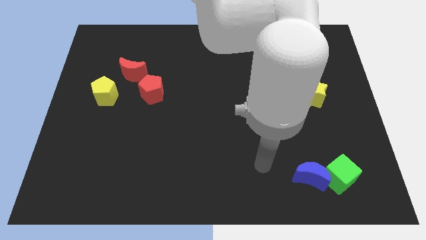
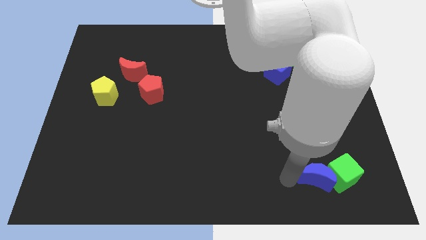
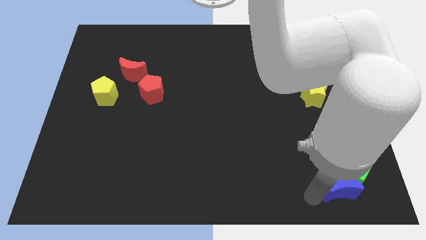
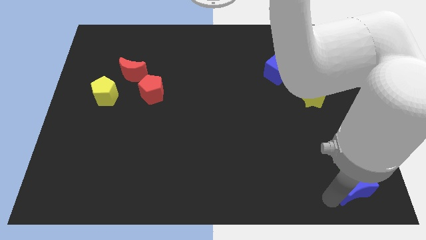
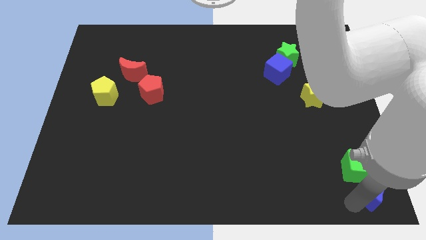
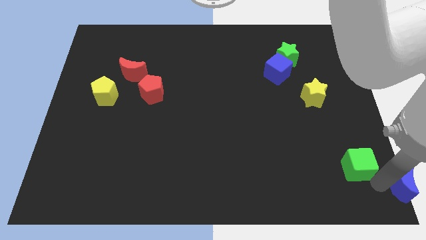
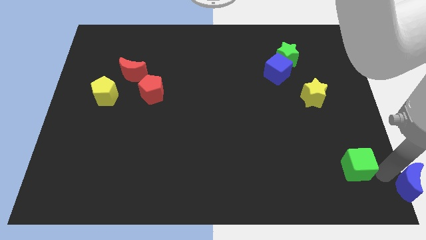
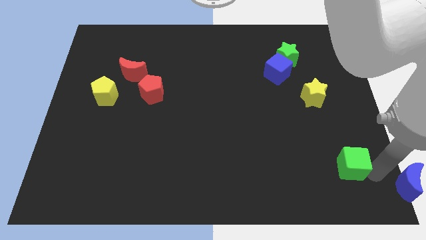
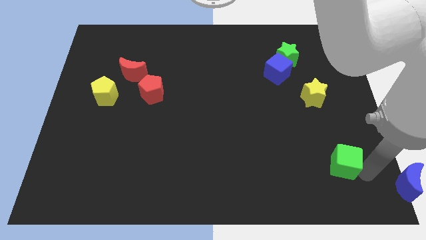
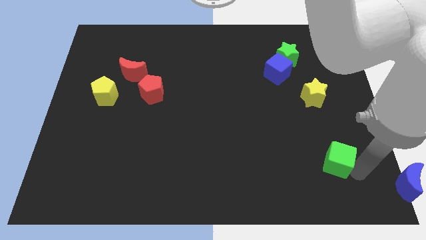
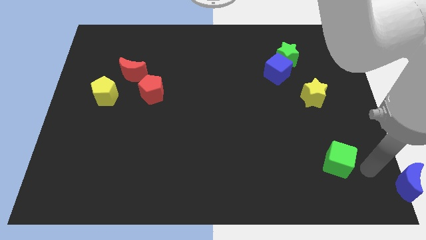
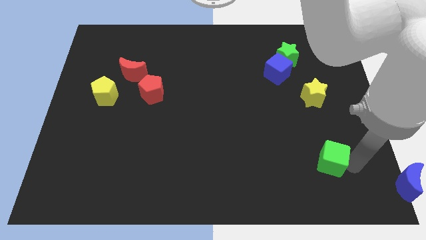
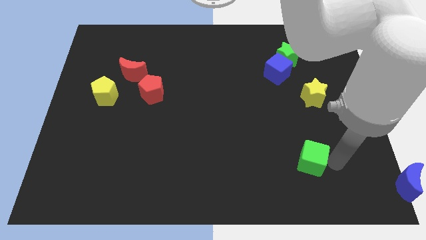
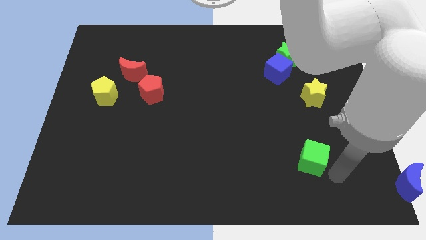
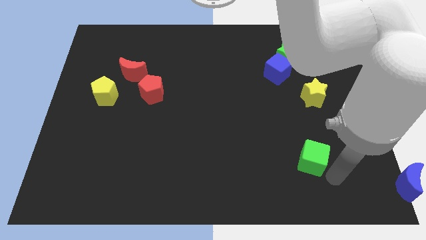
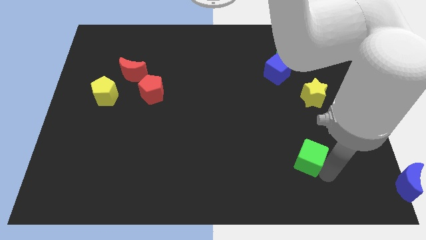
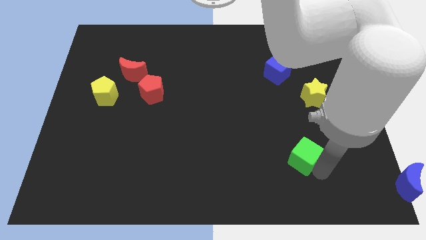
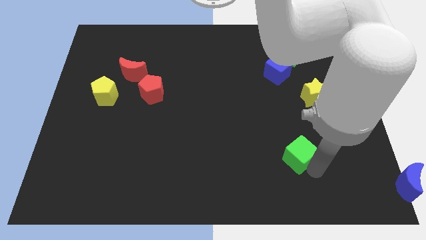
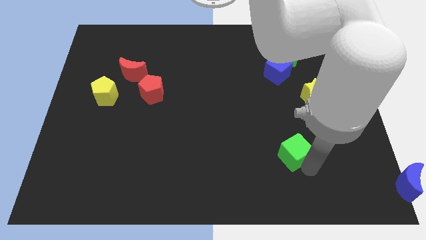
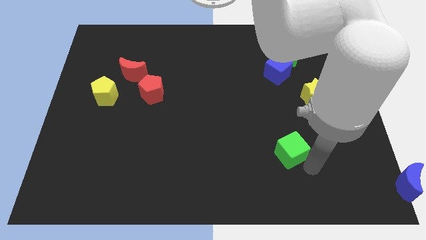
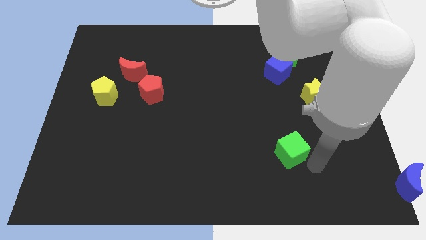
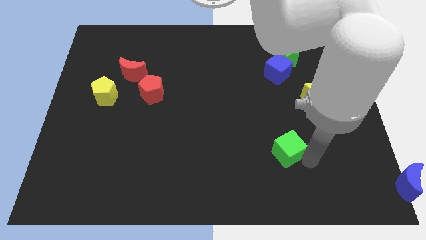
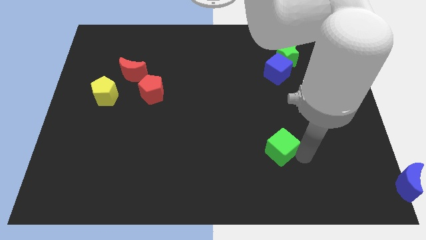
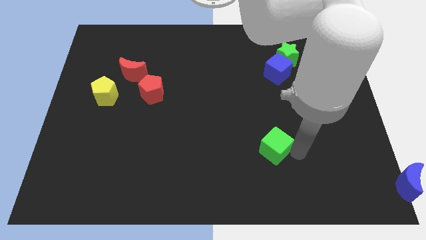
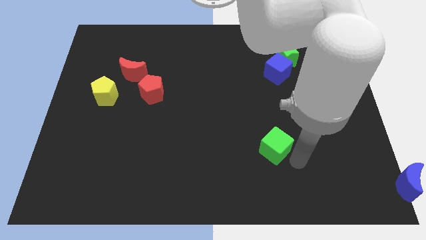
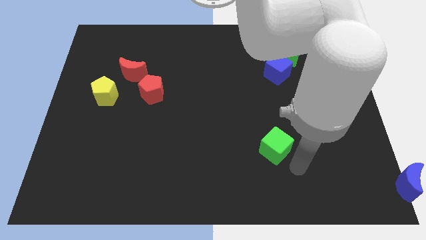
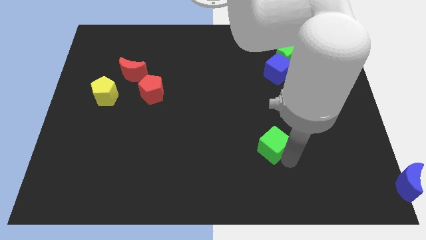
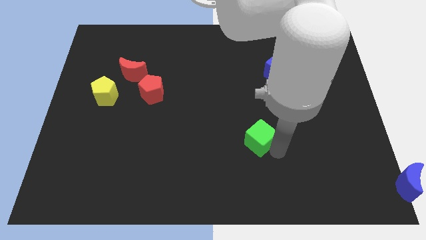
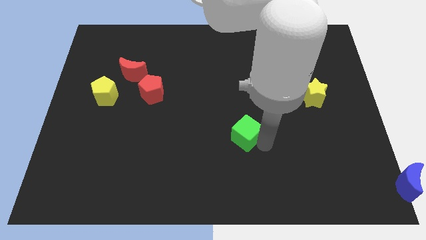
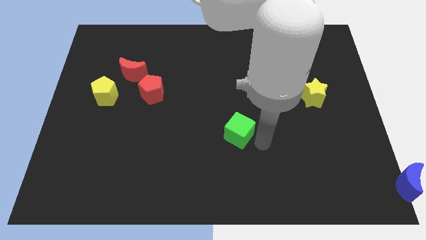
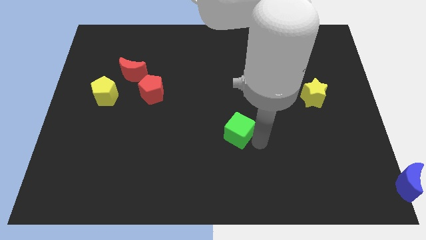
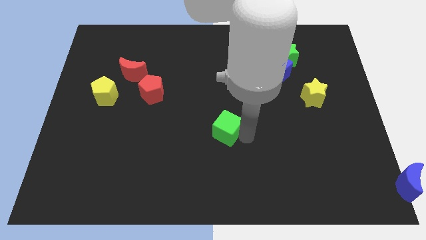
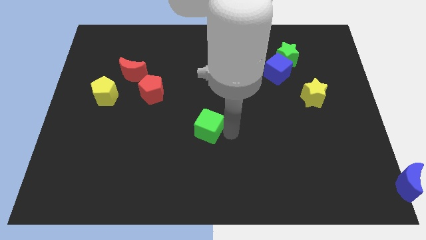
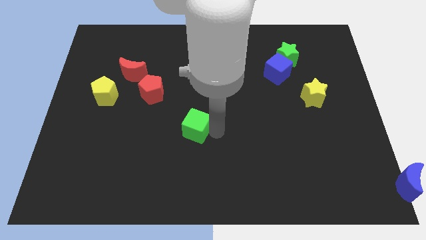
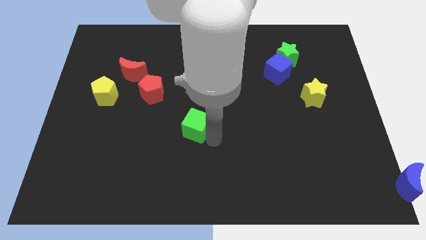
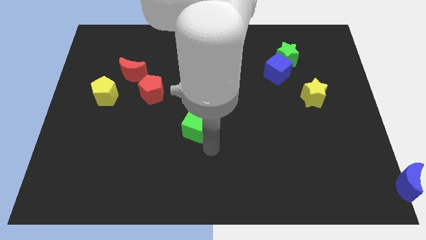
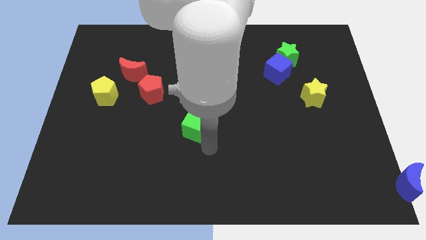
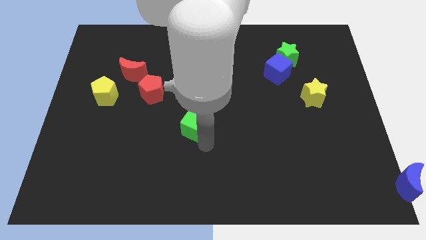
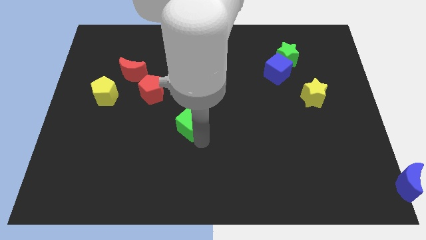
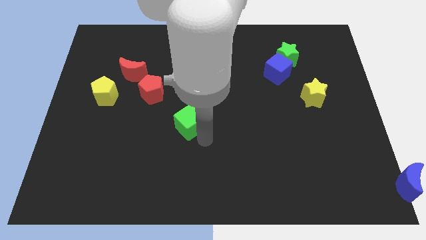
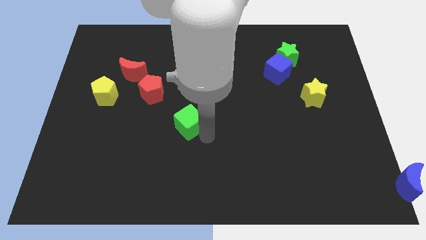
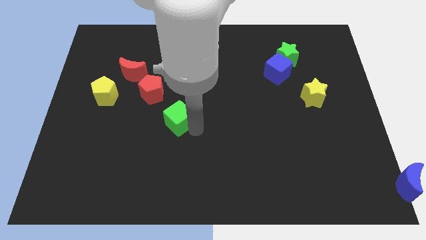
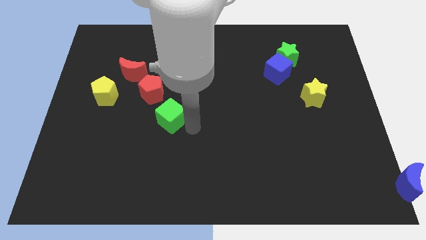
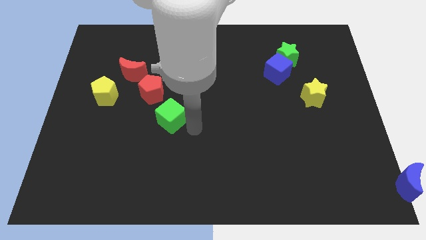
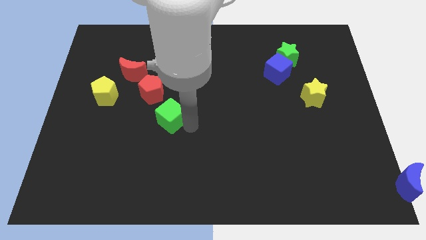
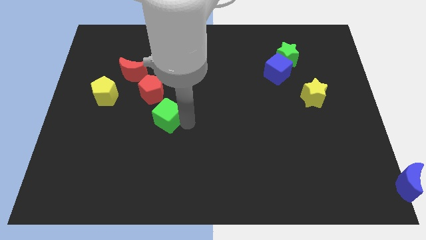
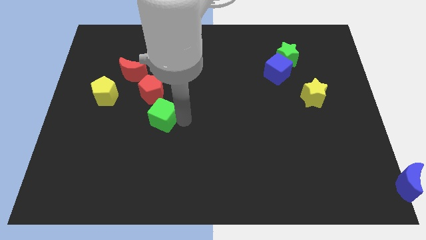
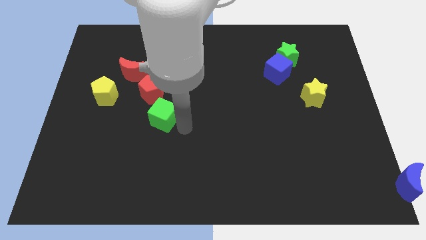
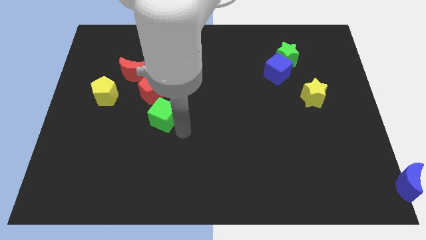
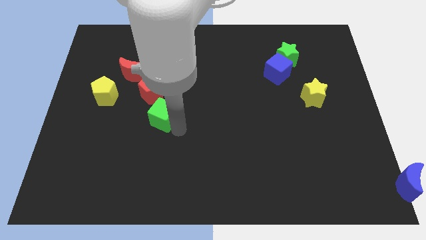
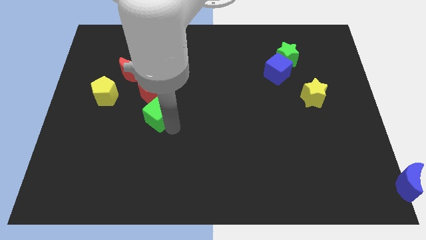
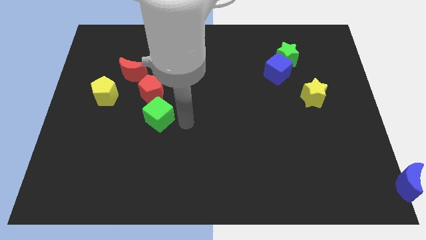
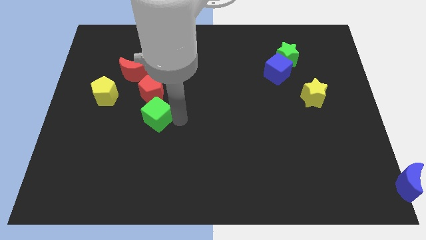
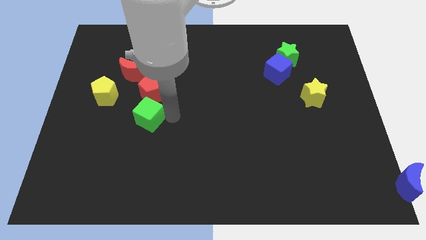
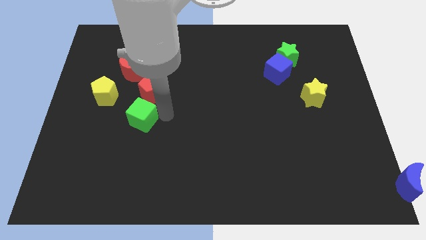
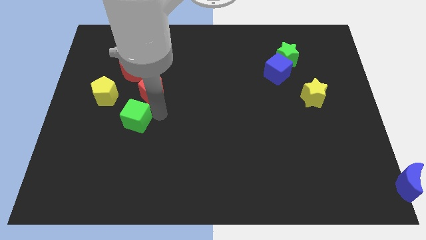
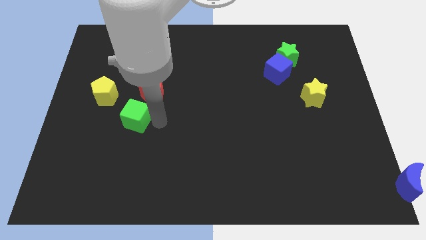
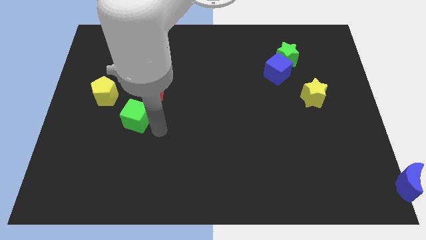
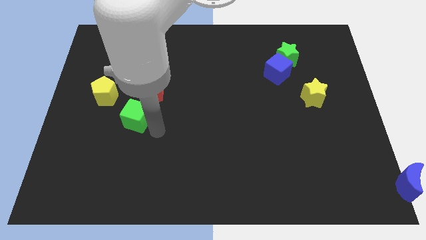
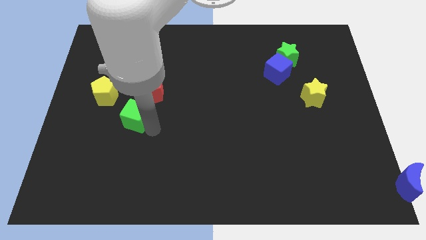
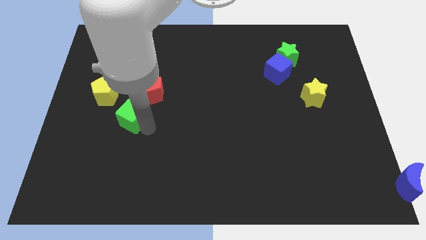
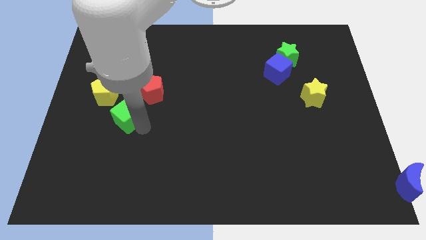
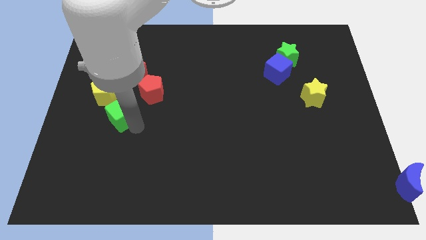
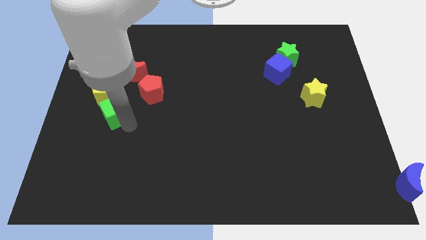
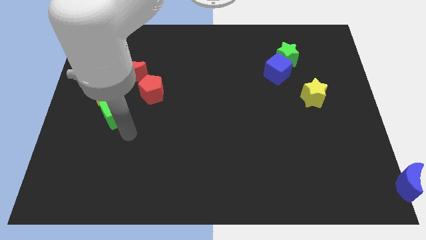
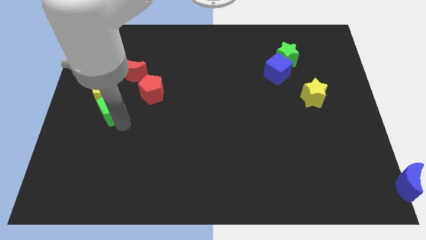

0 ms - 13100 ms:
move the green cube next to the yellow pentagon

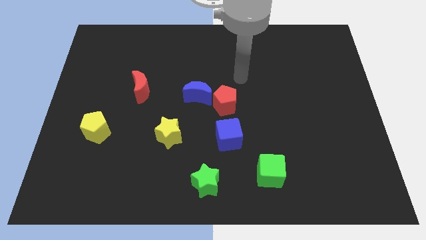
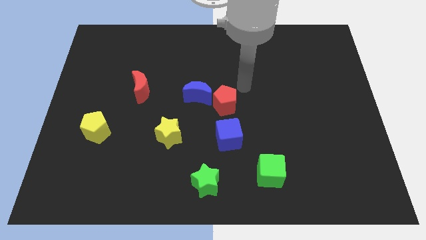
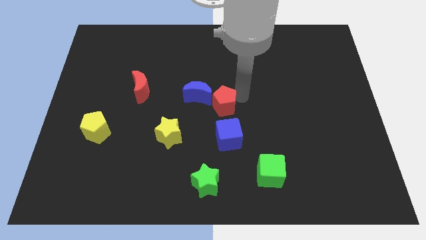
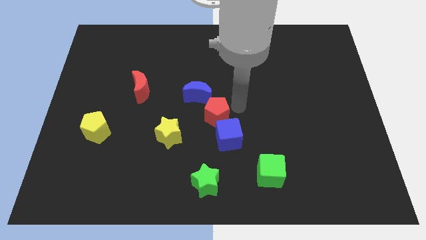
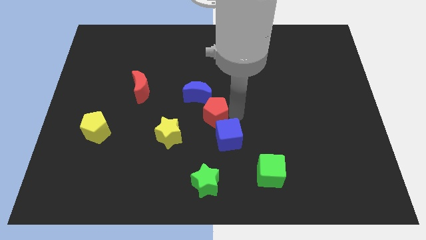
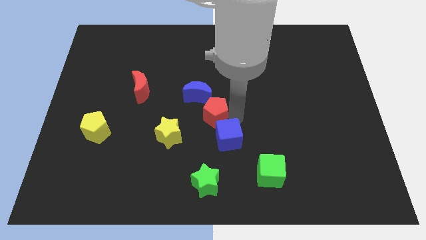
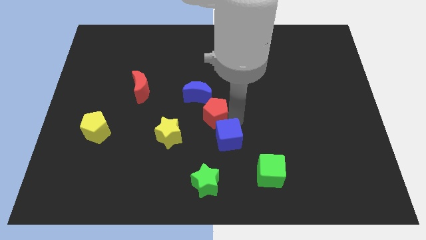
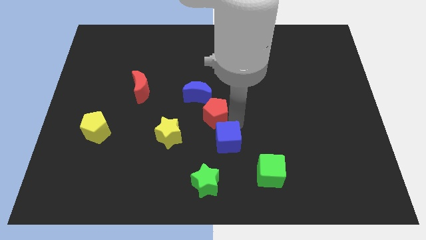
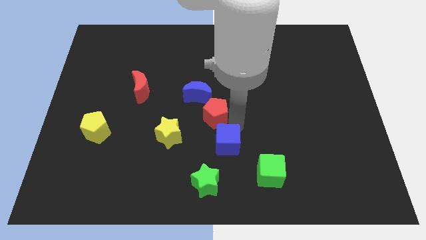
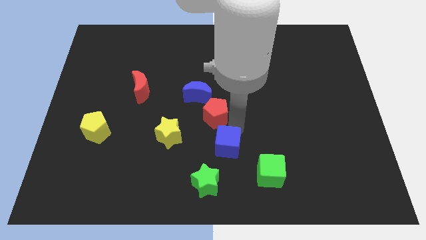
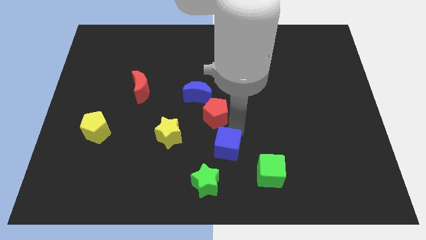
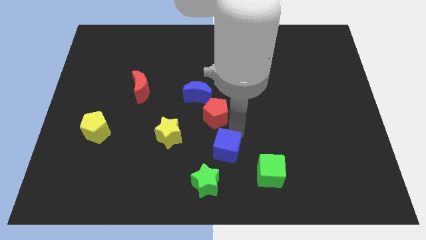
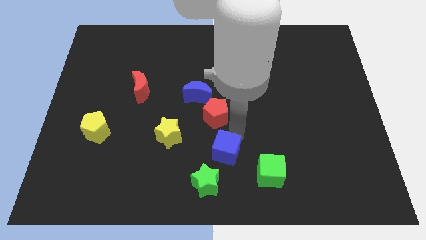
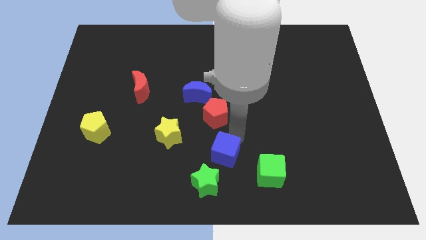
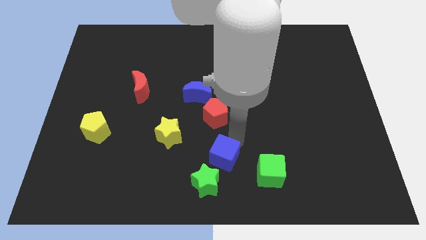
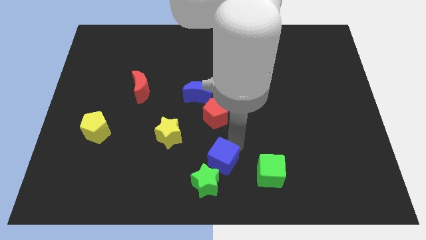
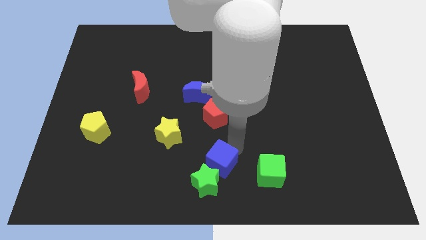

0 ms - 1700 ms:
slide the blue cube to the green star
